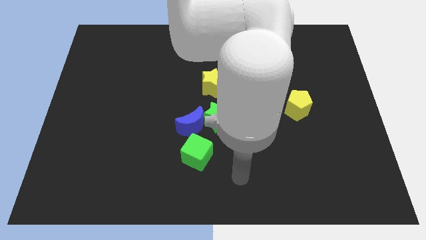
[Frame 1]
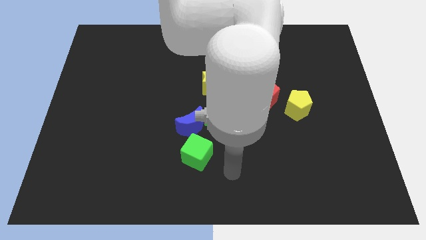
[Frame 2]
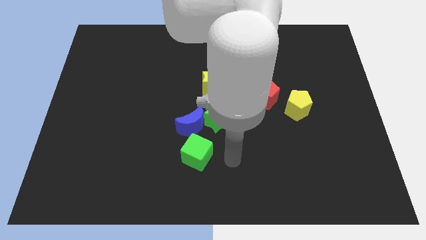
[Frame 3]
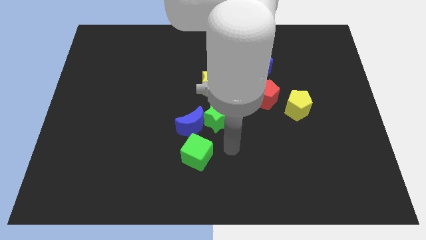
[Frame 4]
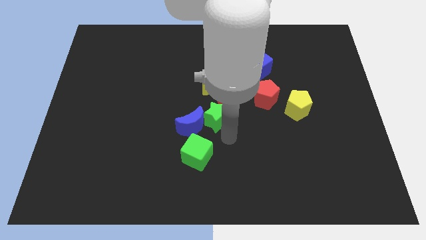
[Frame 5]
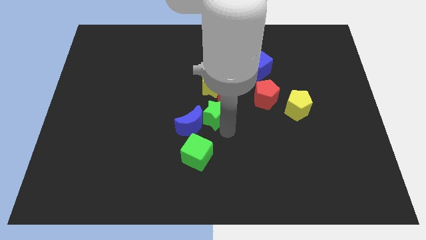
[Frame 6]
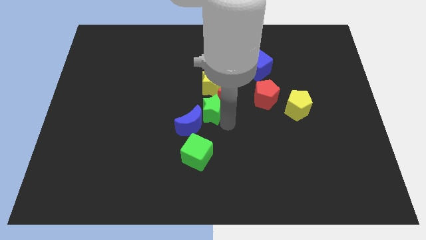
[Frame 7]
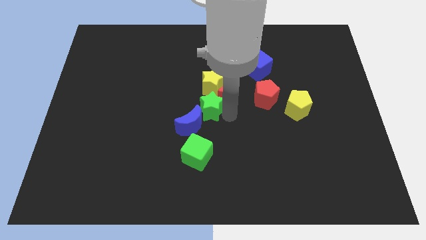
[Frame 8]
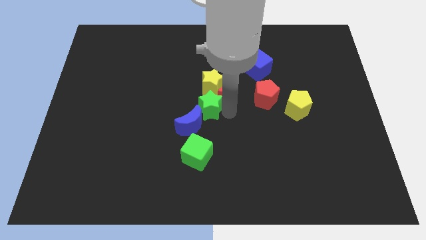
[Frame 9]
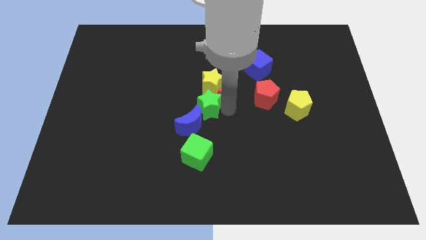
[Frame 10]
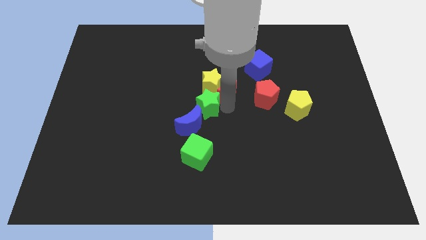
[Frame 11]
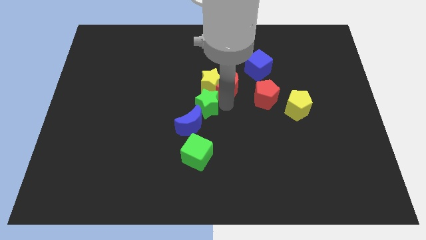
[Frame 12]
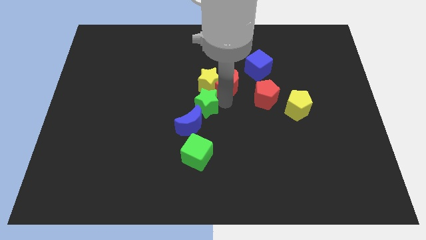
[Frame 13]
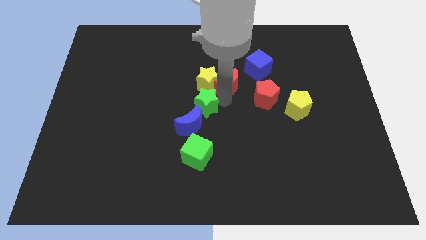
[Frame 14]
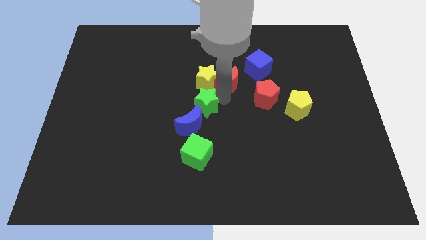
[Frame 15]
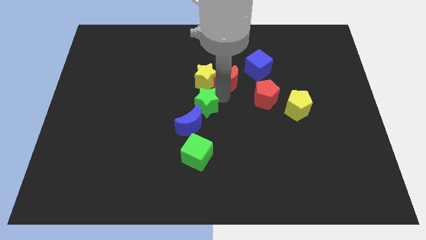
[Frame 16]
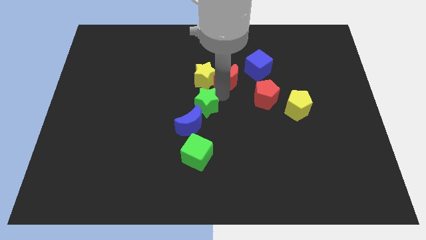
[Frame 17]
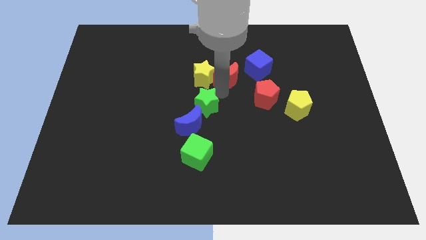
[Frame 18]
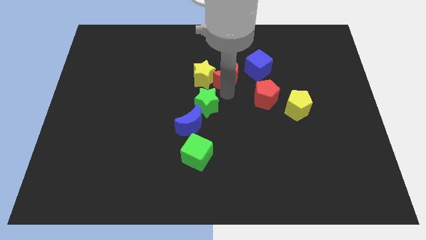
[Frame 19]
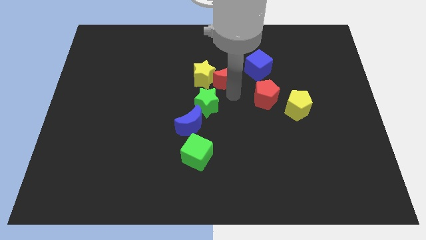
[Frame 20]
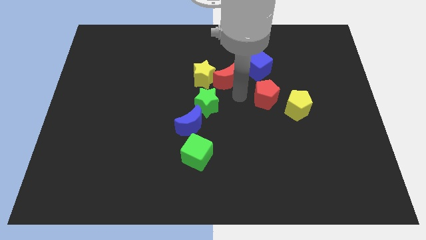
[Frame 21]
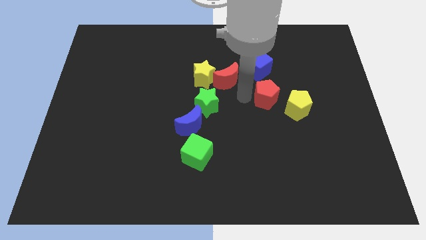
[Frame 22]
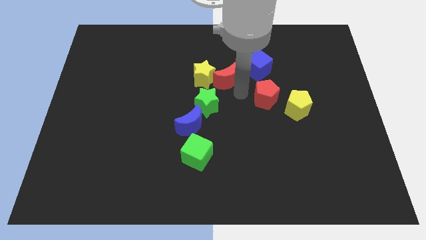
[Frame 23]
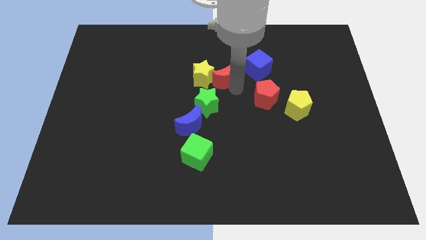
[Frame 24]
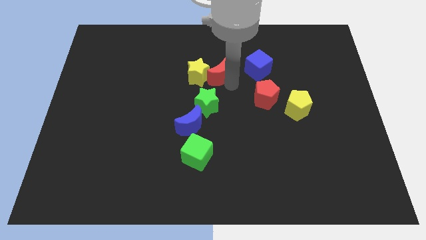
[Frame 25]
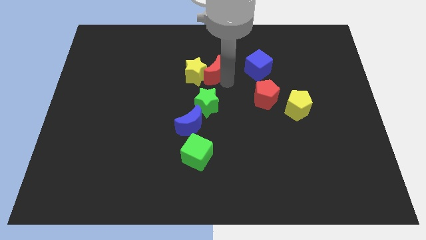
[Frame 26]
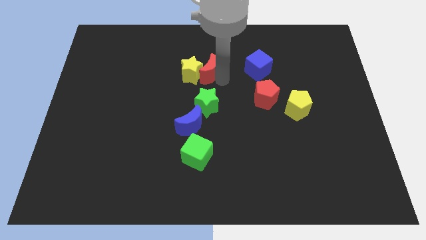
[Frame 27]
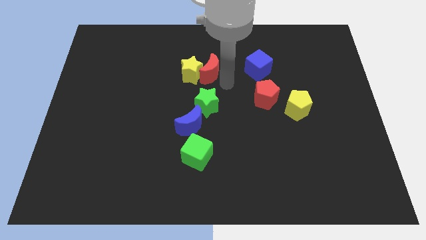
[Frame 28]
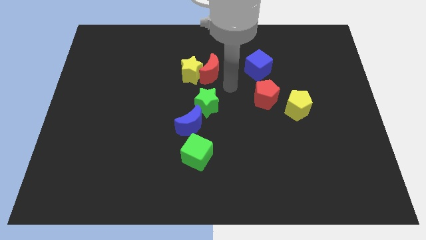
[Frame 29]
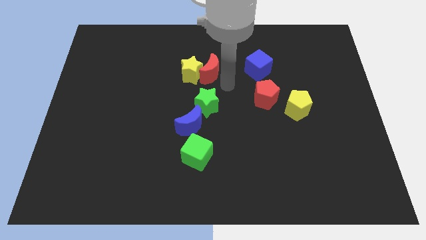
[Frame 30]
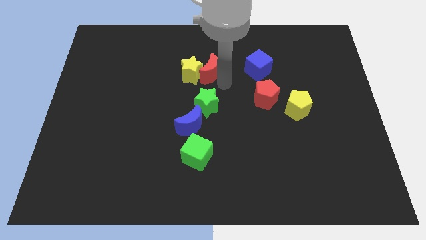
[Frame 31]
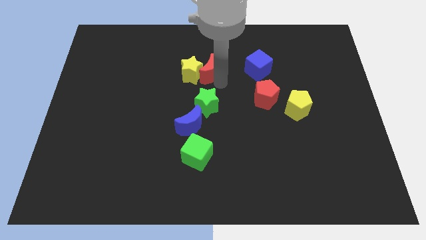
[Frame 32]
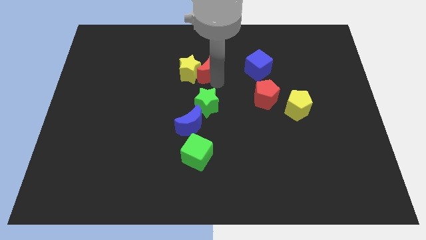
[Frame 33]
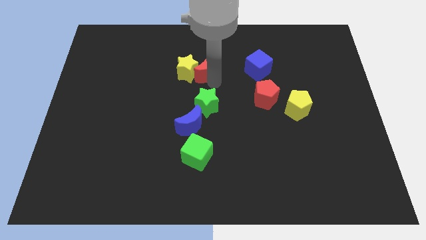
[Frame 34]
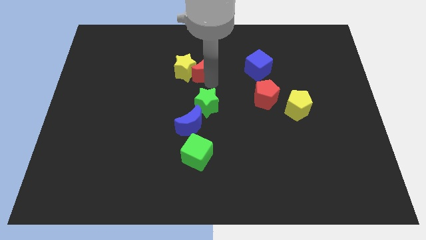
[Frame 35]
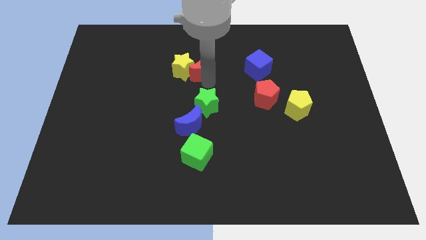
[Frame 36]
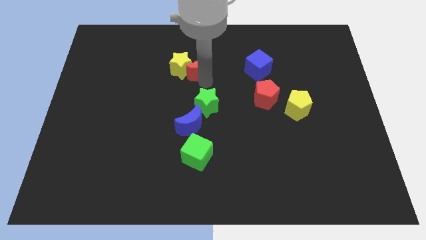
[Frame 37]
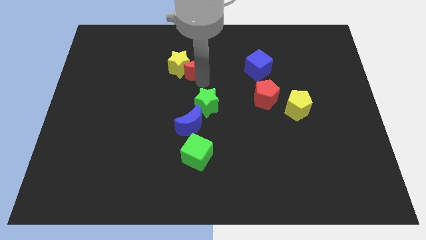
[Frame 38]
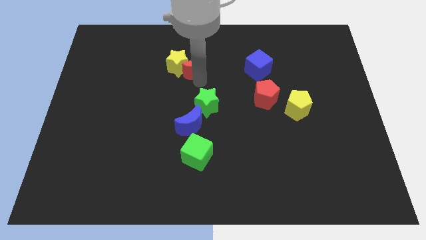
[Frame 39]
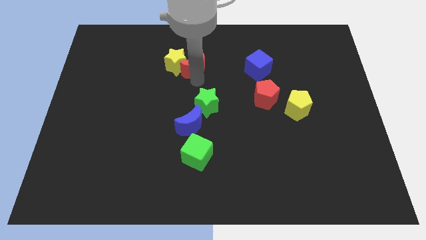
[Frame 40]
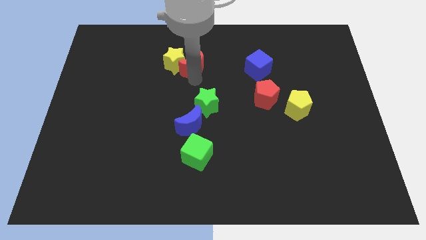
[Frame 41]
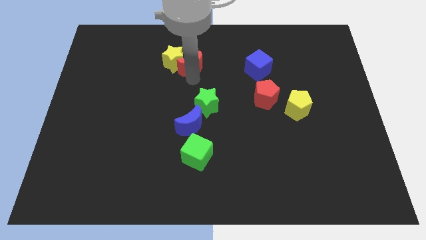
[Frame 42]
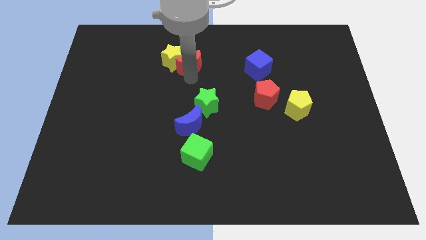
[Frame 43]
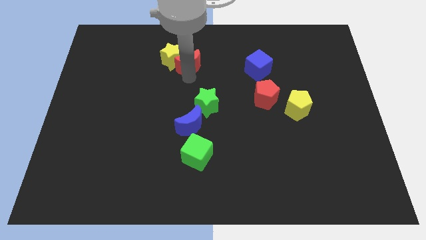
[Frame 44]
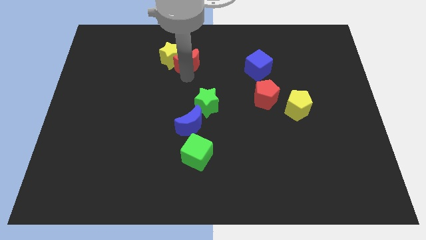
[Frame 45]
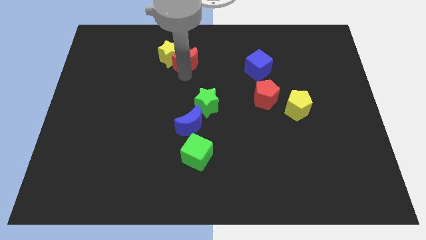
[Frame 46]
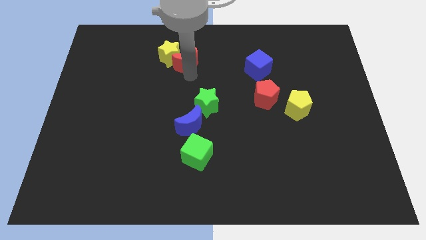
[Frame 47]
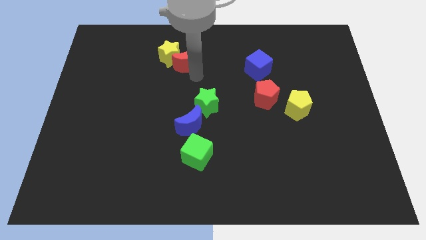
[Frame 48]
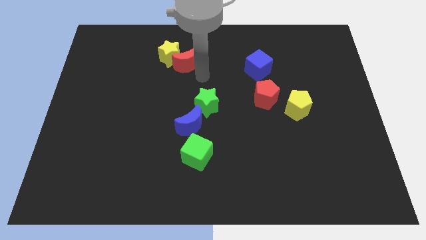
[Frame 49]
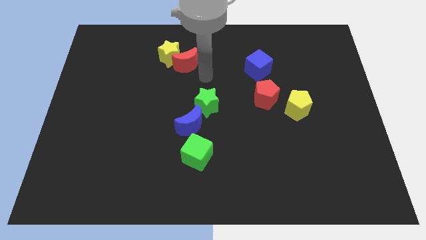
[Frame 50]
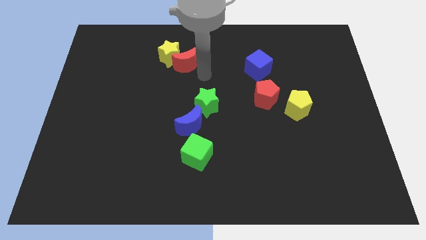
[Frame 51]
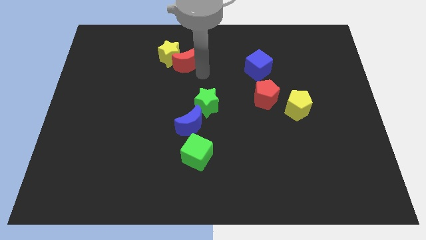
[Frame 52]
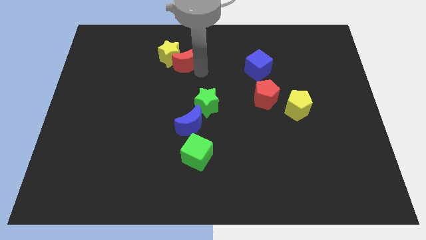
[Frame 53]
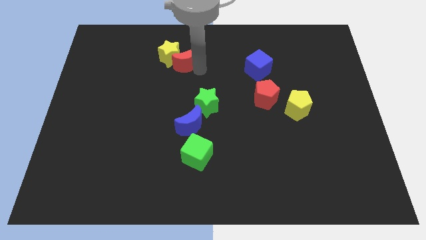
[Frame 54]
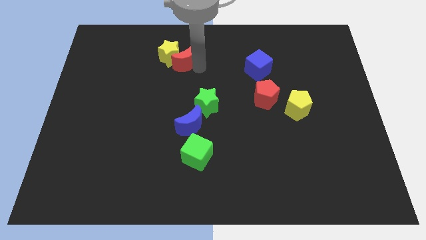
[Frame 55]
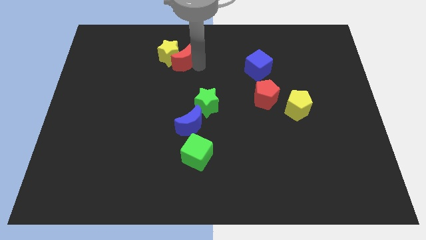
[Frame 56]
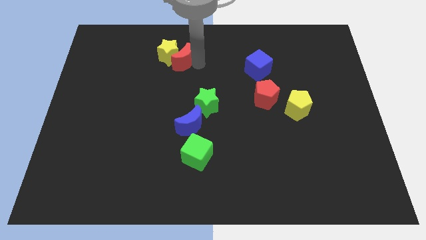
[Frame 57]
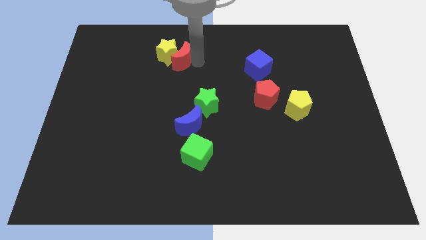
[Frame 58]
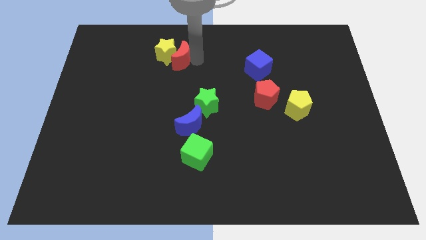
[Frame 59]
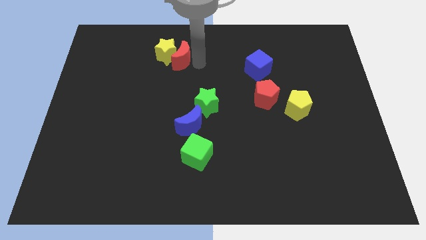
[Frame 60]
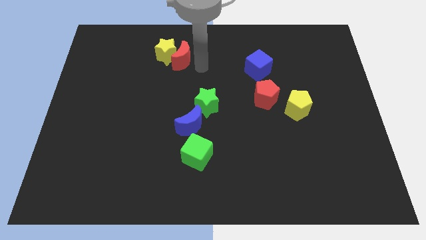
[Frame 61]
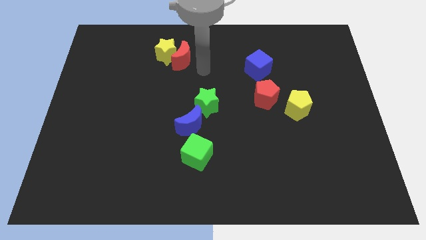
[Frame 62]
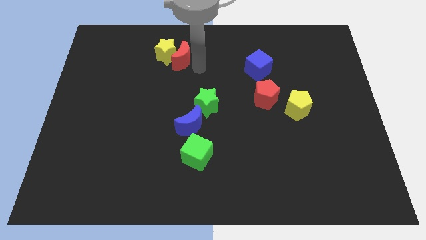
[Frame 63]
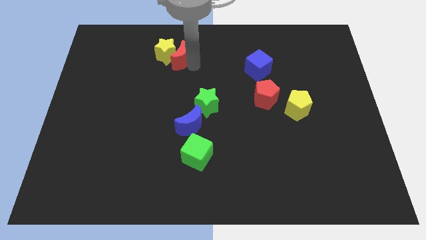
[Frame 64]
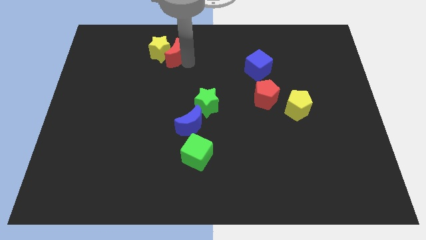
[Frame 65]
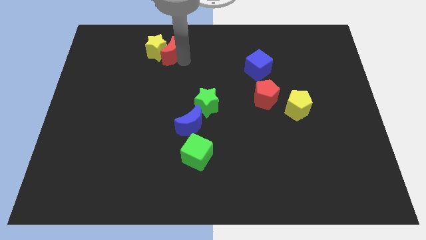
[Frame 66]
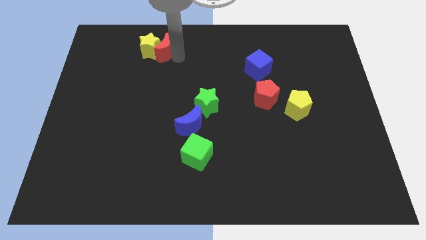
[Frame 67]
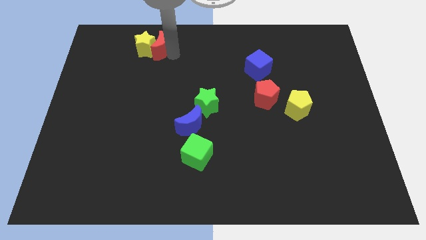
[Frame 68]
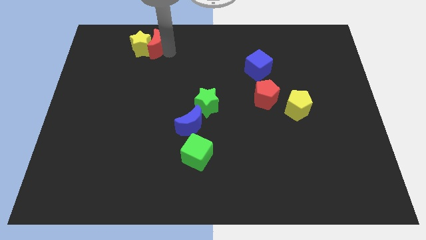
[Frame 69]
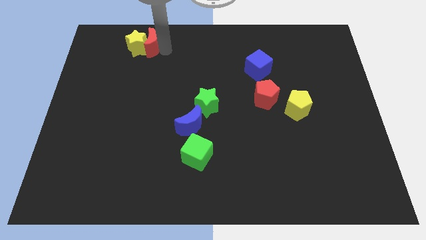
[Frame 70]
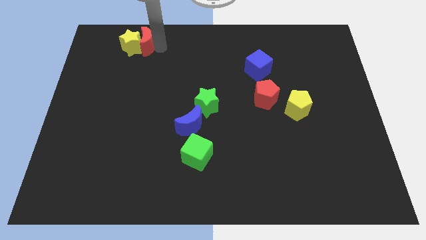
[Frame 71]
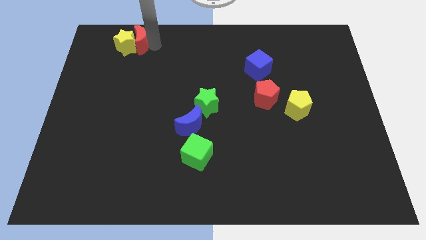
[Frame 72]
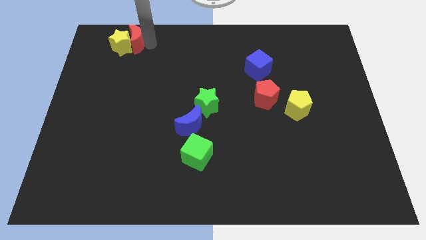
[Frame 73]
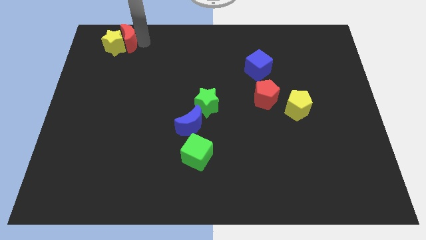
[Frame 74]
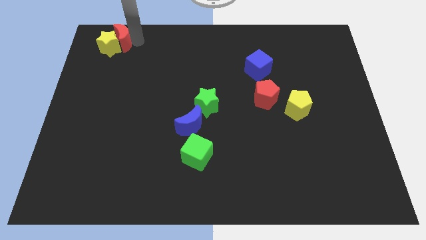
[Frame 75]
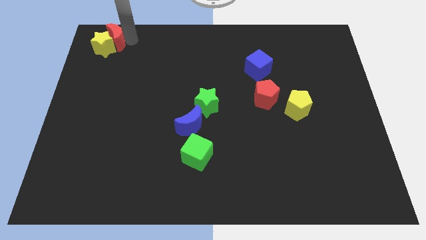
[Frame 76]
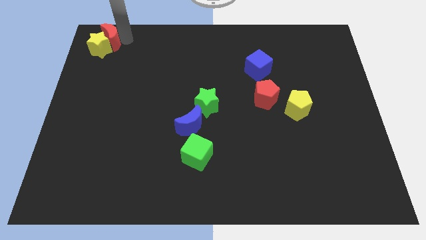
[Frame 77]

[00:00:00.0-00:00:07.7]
slide the red moon to the upper left corner
